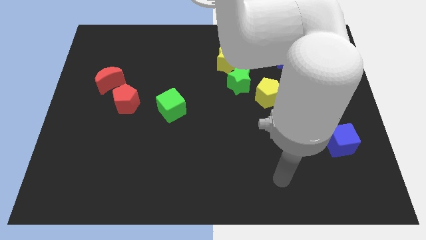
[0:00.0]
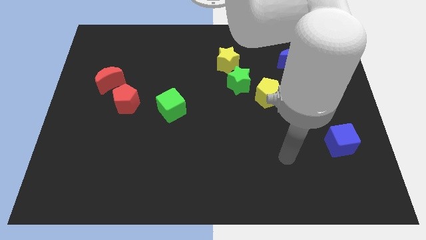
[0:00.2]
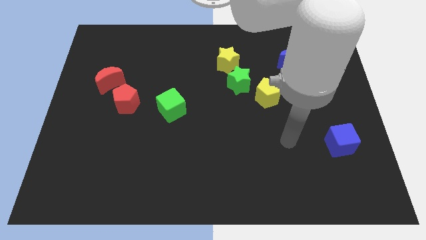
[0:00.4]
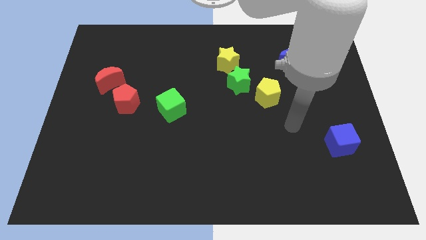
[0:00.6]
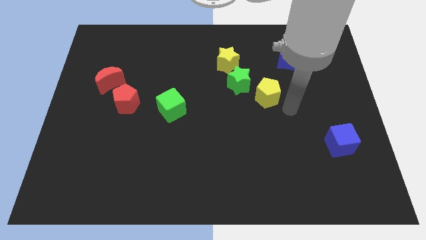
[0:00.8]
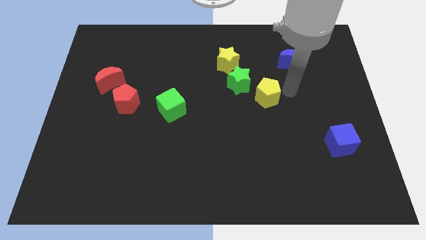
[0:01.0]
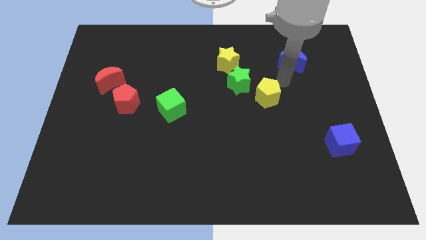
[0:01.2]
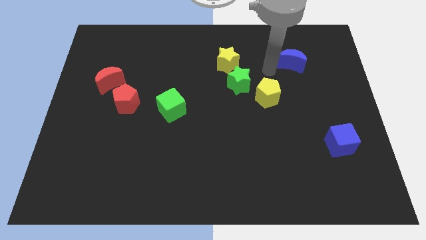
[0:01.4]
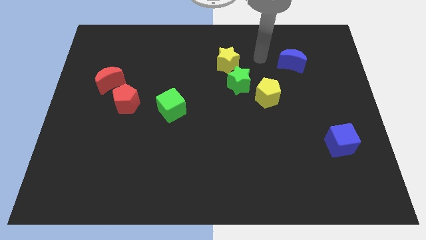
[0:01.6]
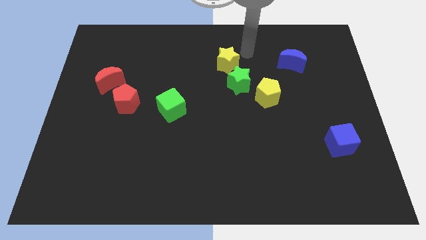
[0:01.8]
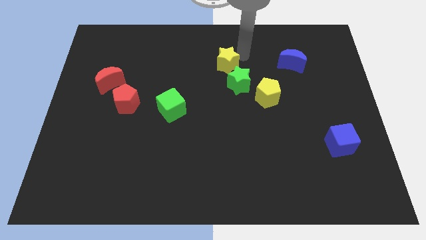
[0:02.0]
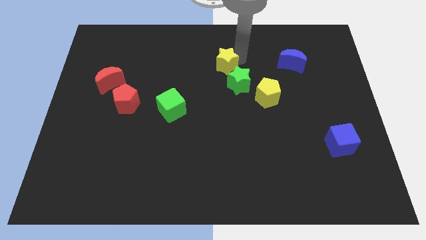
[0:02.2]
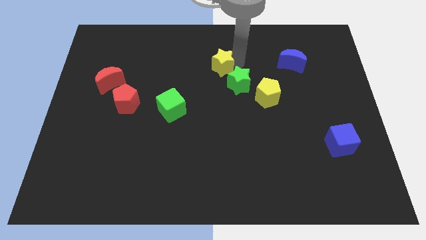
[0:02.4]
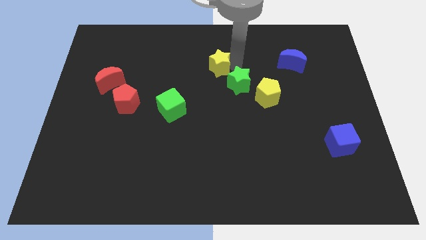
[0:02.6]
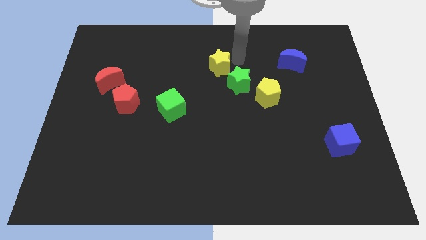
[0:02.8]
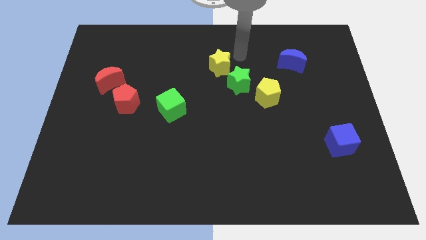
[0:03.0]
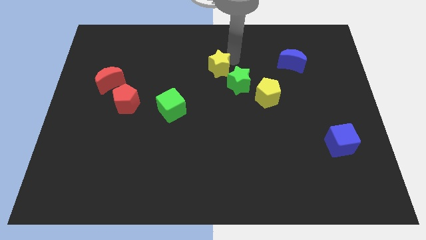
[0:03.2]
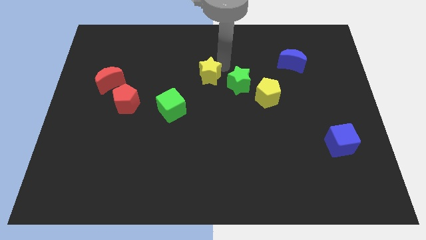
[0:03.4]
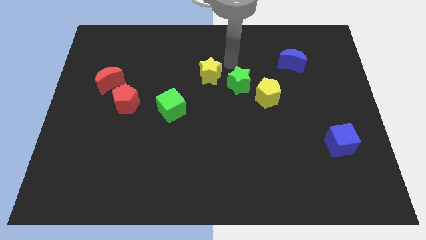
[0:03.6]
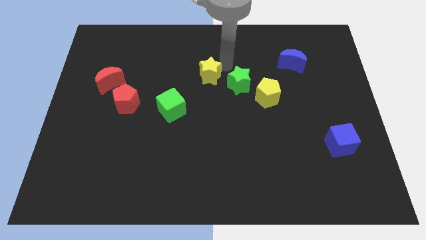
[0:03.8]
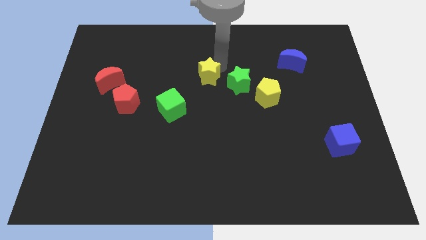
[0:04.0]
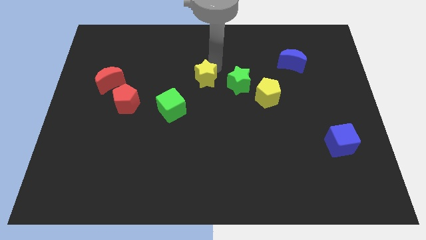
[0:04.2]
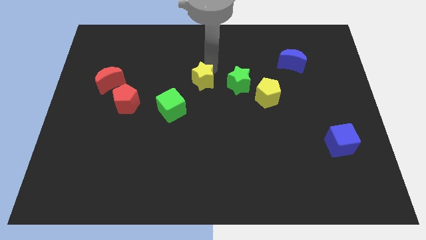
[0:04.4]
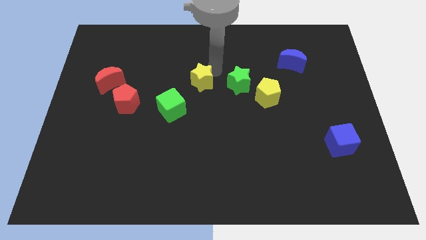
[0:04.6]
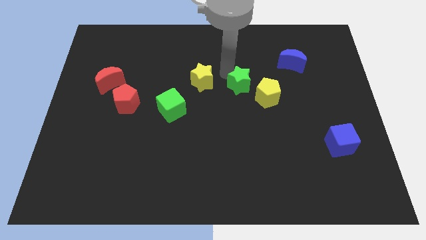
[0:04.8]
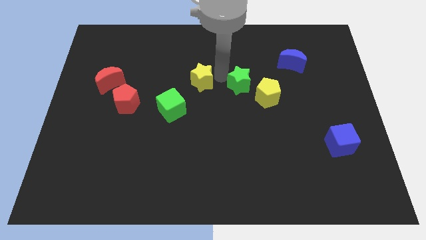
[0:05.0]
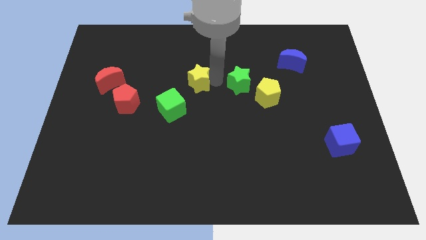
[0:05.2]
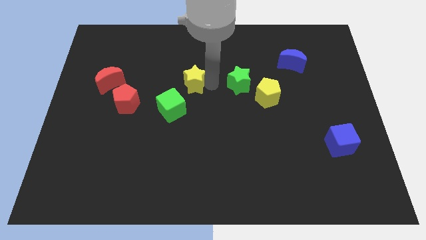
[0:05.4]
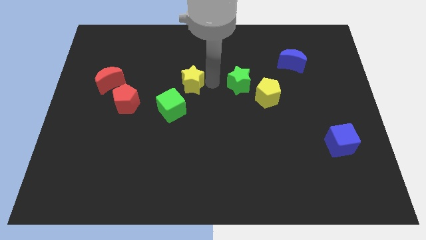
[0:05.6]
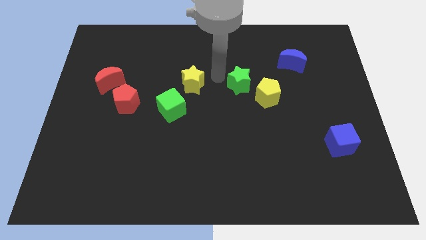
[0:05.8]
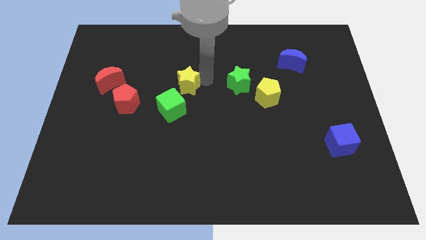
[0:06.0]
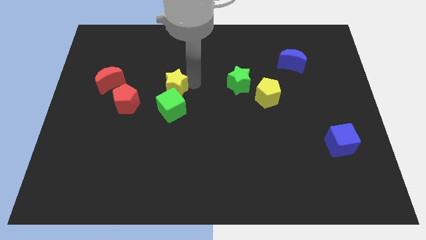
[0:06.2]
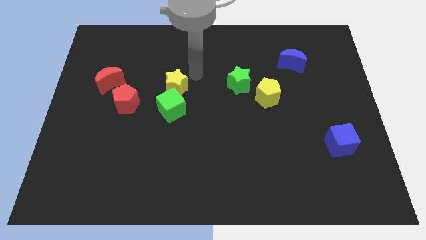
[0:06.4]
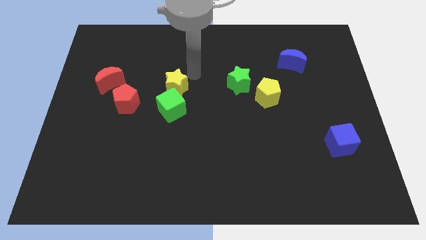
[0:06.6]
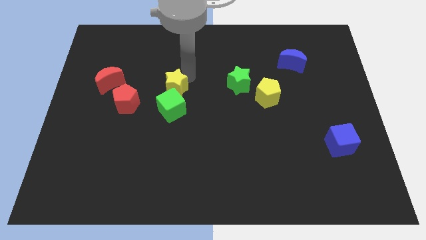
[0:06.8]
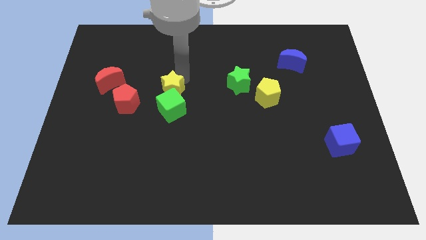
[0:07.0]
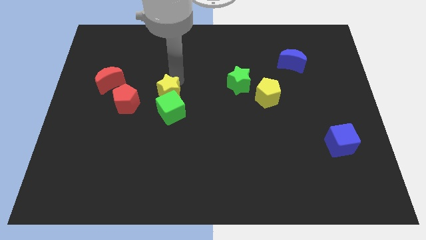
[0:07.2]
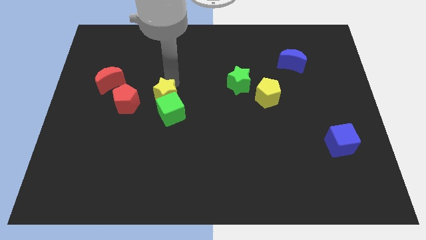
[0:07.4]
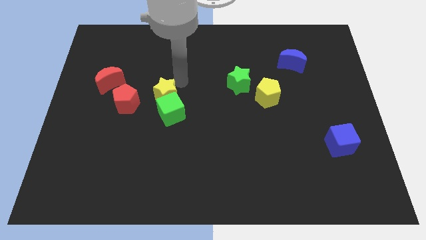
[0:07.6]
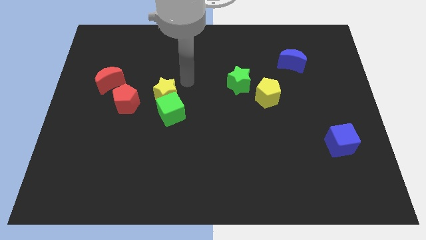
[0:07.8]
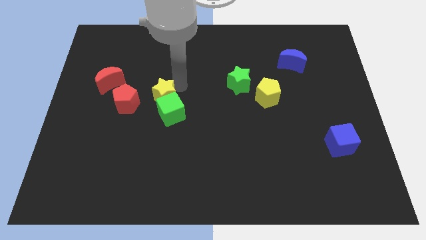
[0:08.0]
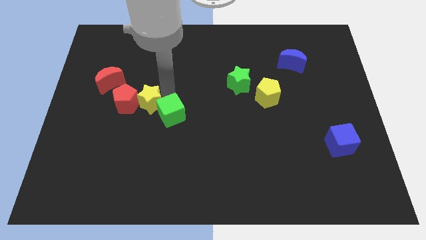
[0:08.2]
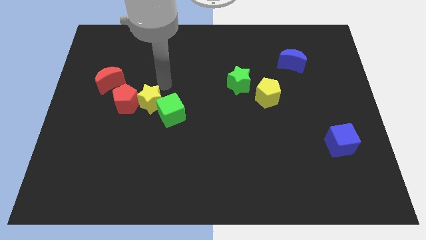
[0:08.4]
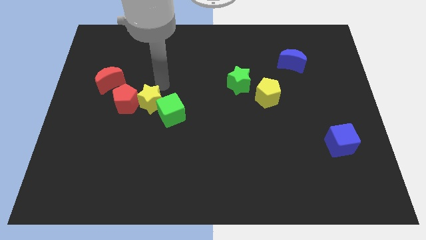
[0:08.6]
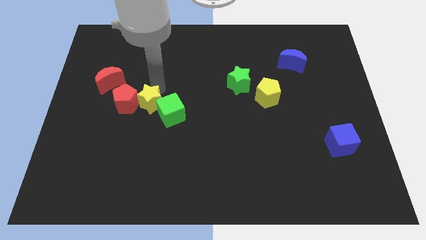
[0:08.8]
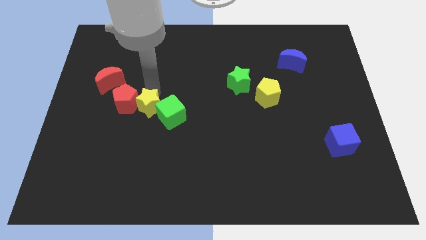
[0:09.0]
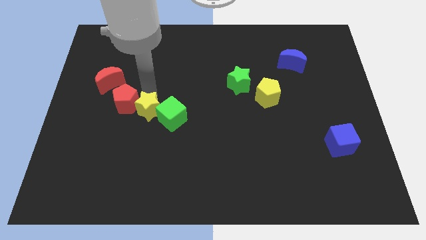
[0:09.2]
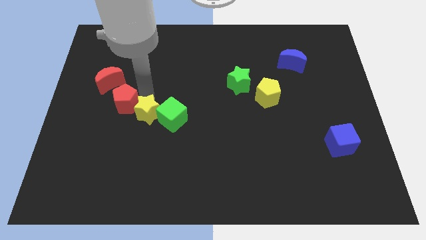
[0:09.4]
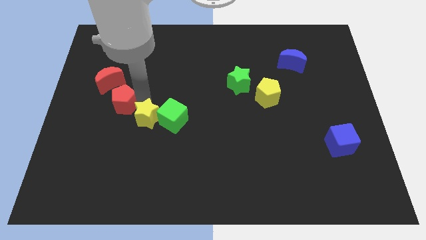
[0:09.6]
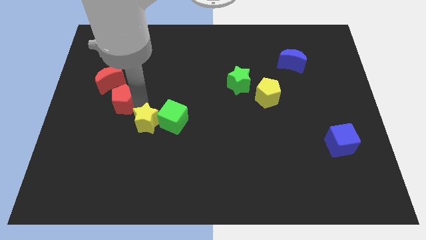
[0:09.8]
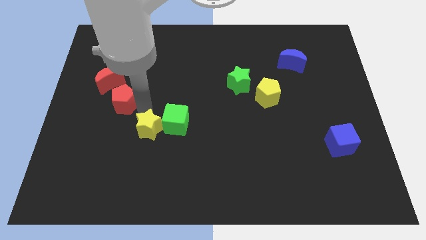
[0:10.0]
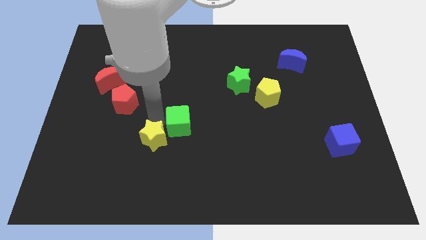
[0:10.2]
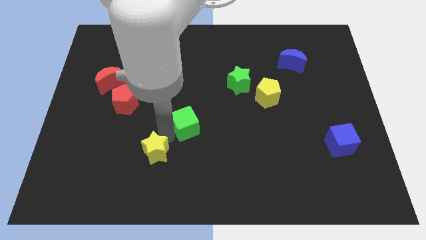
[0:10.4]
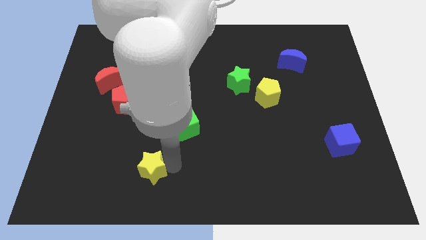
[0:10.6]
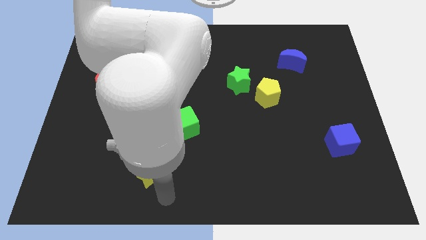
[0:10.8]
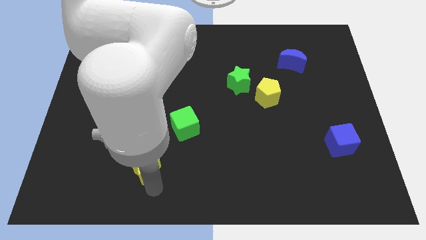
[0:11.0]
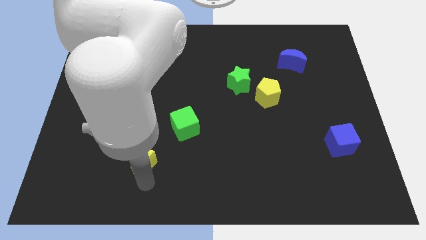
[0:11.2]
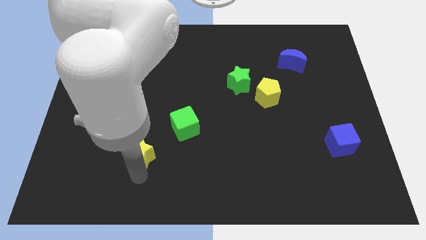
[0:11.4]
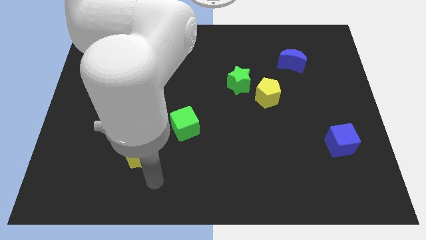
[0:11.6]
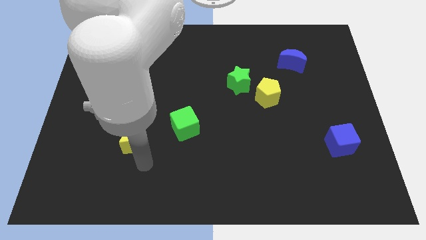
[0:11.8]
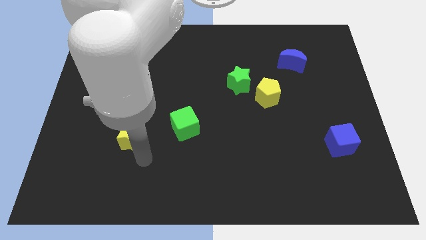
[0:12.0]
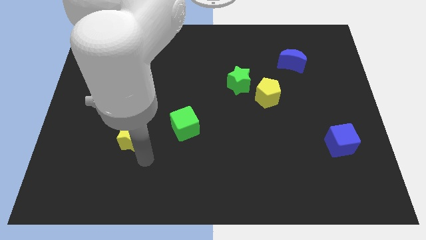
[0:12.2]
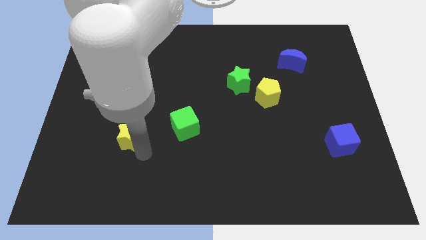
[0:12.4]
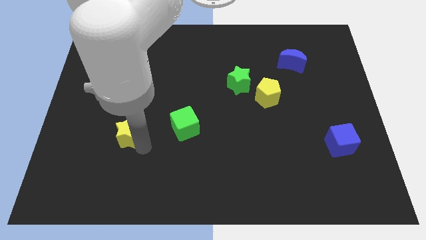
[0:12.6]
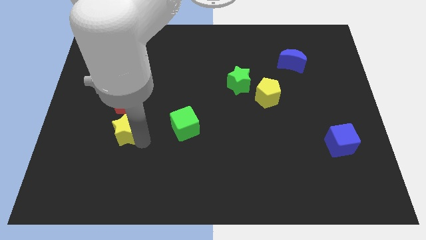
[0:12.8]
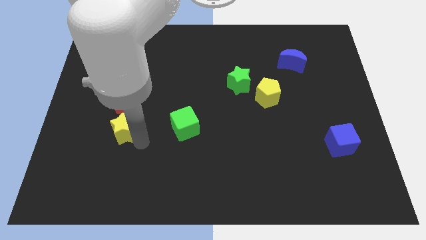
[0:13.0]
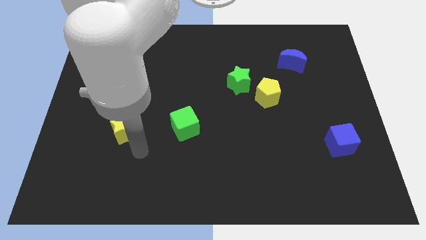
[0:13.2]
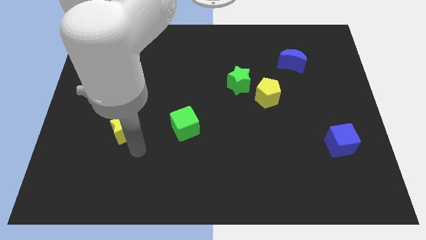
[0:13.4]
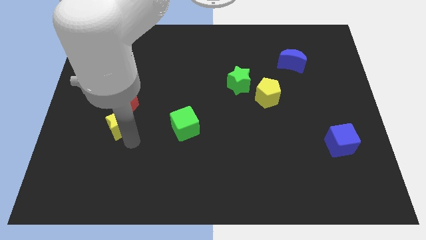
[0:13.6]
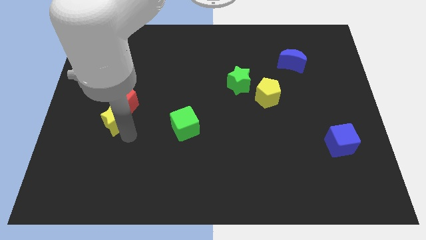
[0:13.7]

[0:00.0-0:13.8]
slide the yellow star to the bottom of the red moon

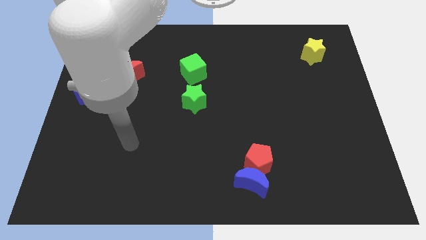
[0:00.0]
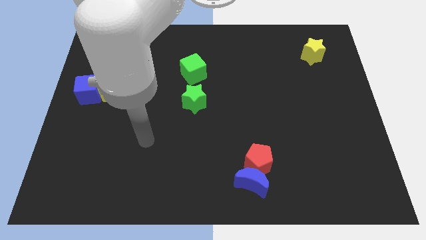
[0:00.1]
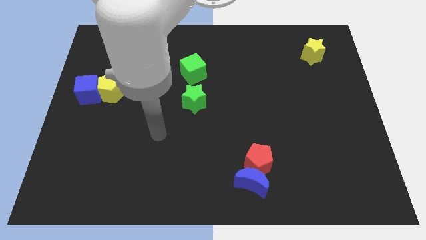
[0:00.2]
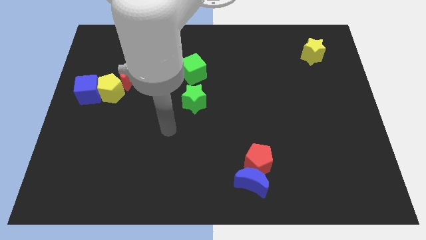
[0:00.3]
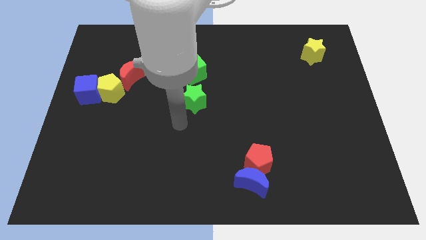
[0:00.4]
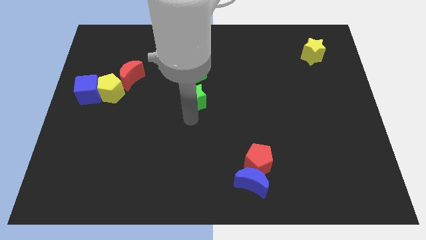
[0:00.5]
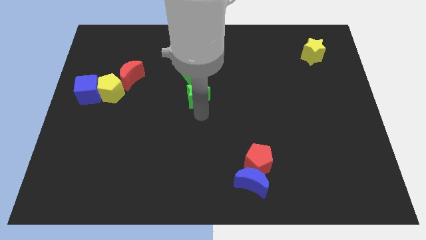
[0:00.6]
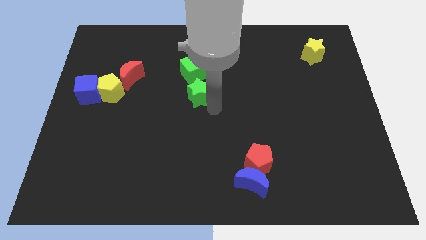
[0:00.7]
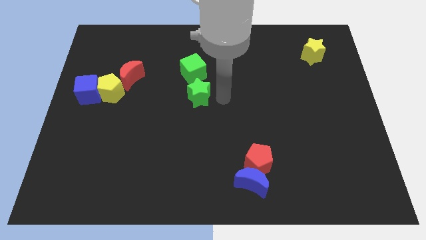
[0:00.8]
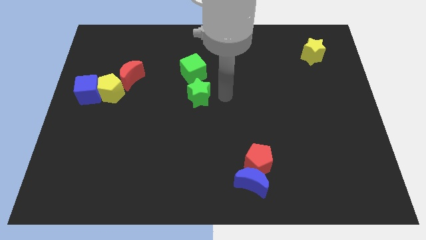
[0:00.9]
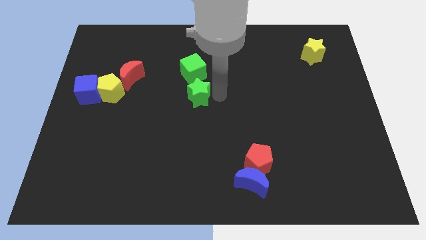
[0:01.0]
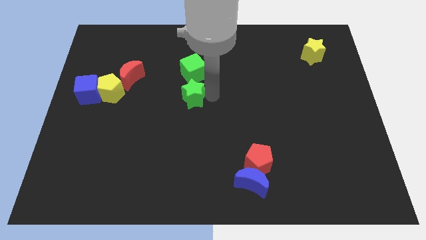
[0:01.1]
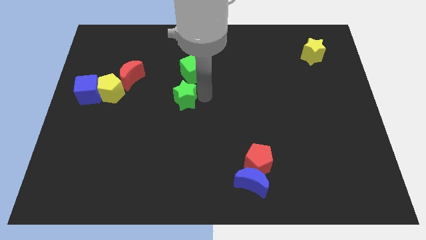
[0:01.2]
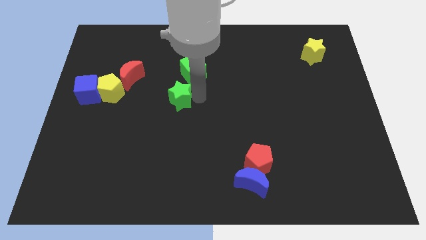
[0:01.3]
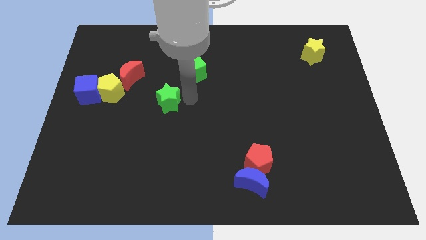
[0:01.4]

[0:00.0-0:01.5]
push the green star diagonally down and to the right of the red moon
